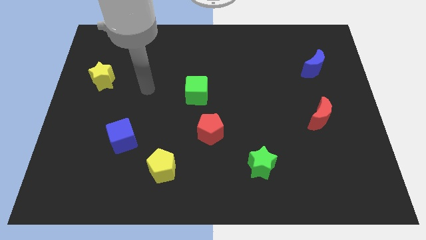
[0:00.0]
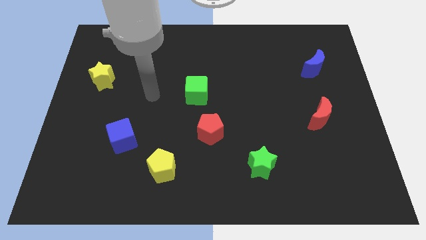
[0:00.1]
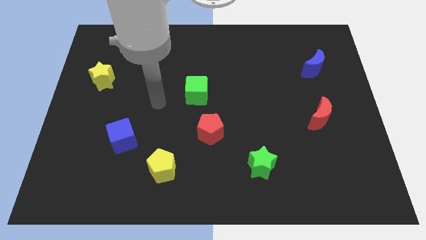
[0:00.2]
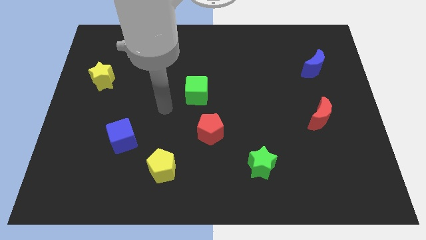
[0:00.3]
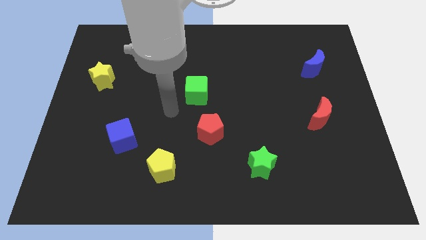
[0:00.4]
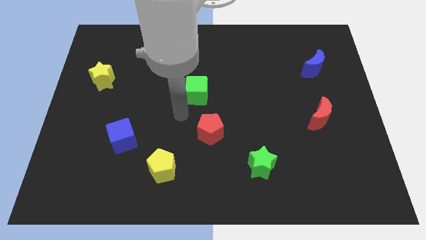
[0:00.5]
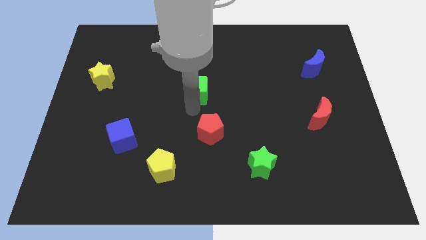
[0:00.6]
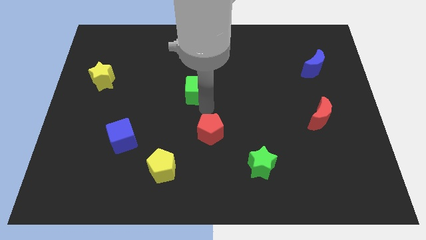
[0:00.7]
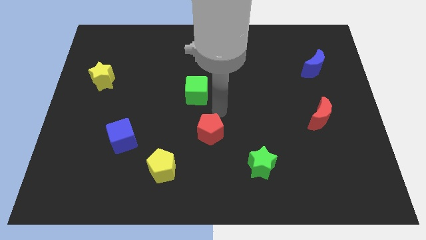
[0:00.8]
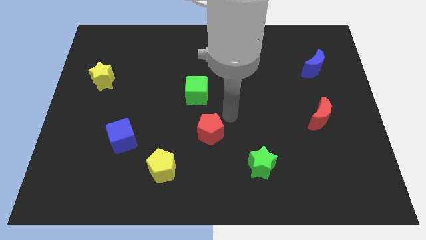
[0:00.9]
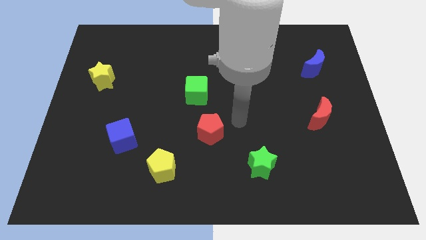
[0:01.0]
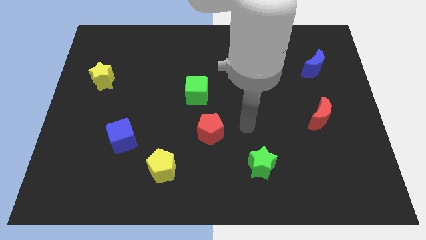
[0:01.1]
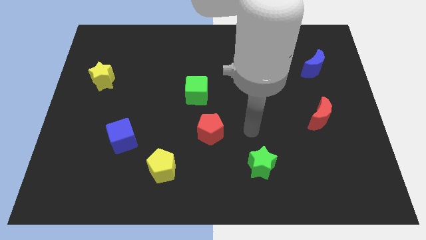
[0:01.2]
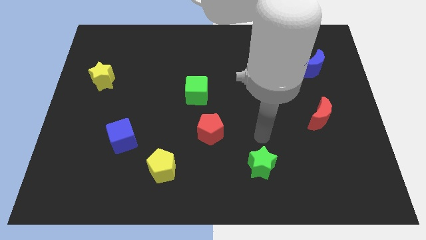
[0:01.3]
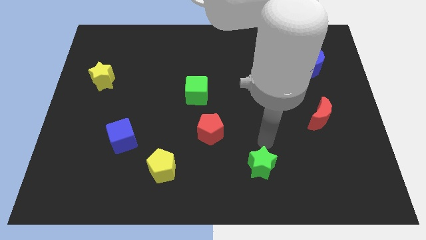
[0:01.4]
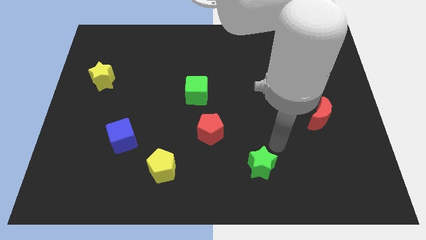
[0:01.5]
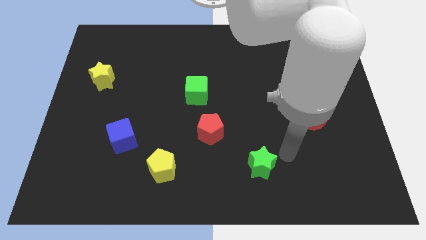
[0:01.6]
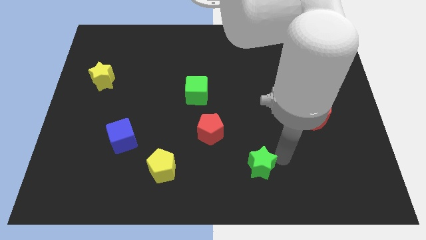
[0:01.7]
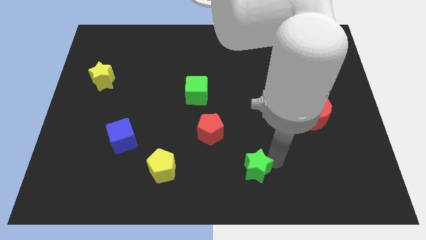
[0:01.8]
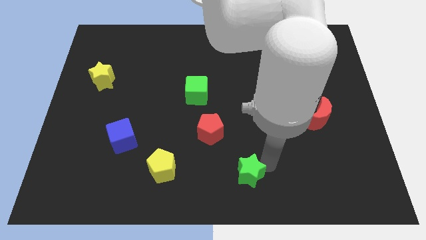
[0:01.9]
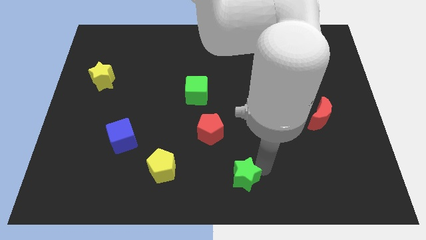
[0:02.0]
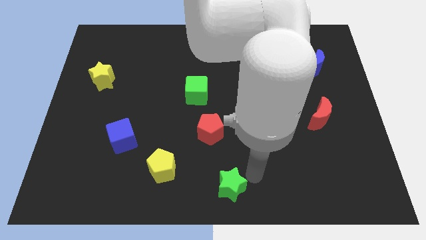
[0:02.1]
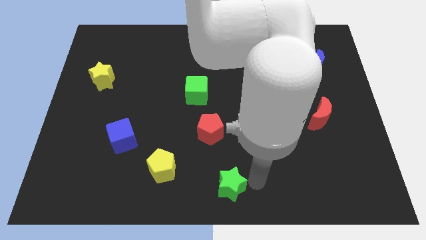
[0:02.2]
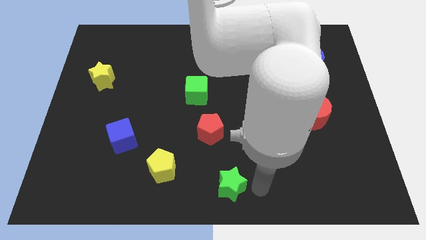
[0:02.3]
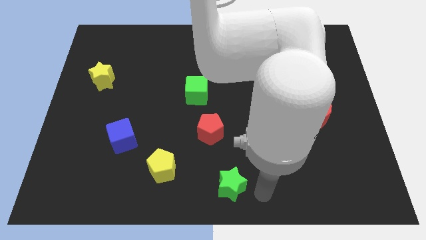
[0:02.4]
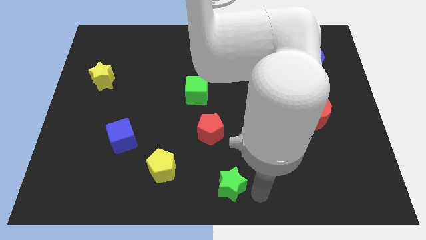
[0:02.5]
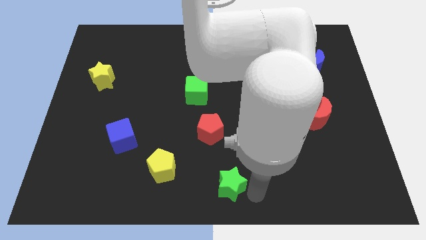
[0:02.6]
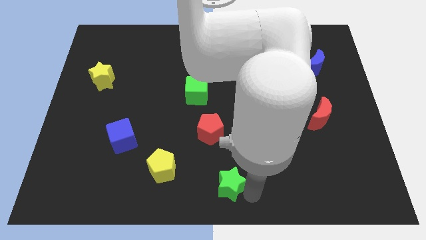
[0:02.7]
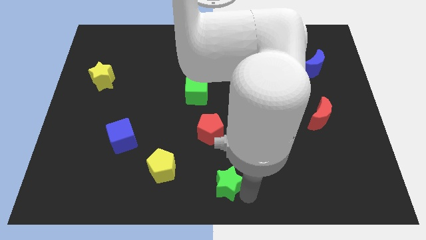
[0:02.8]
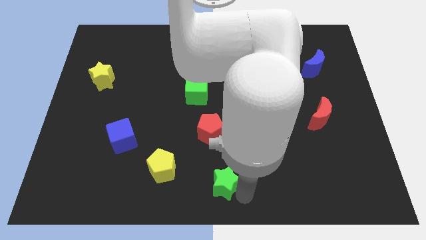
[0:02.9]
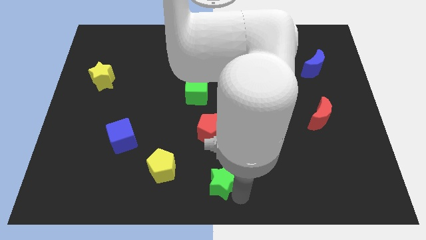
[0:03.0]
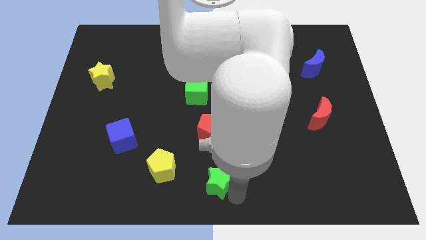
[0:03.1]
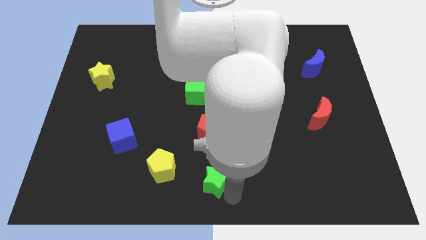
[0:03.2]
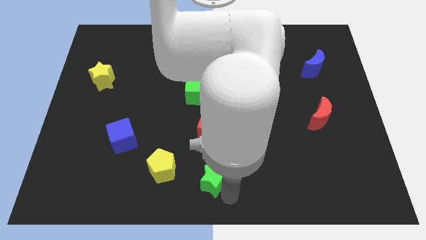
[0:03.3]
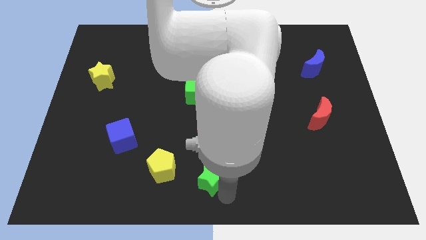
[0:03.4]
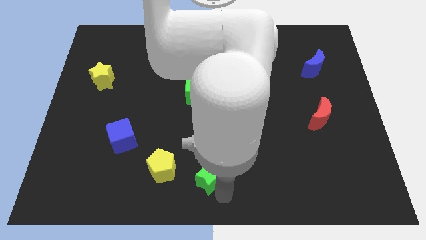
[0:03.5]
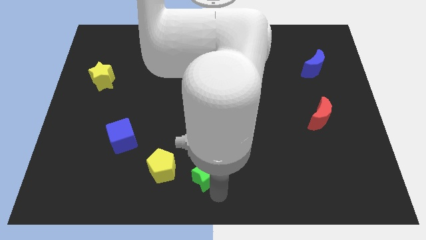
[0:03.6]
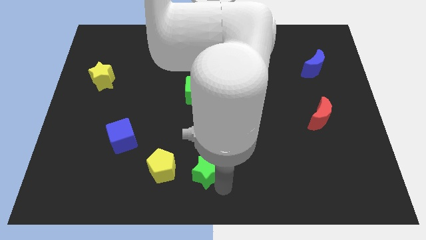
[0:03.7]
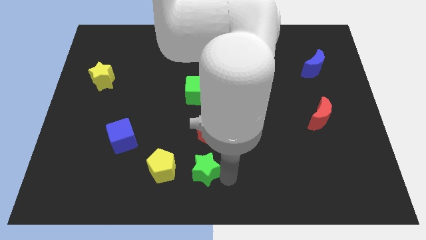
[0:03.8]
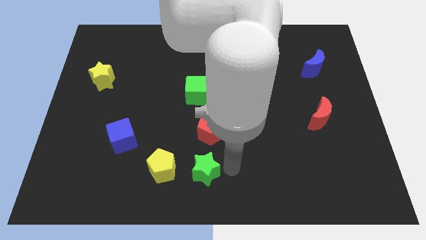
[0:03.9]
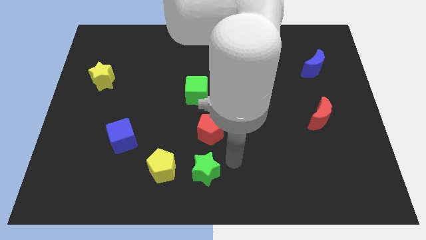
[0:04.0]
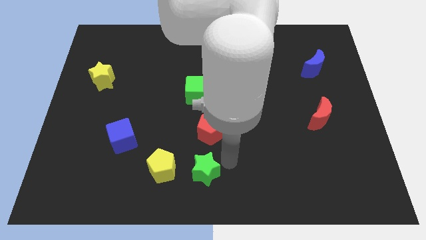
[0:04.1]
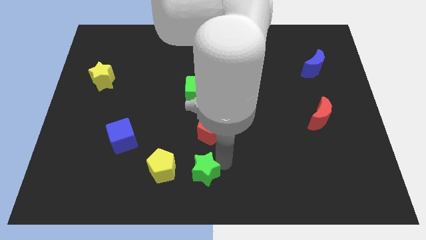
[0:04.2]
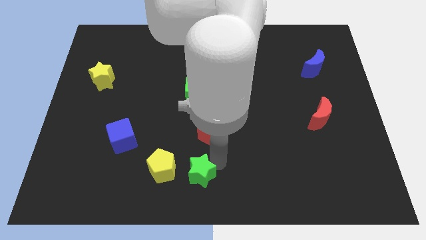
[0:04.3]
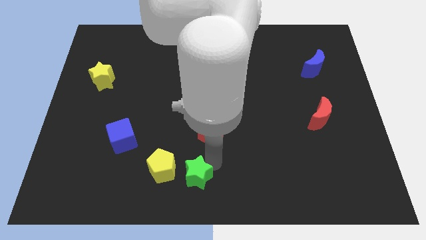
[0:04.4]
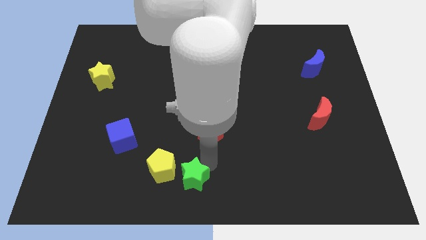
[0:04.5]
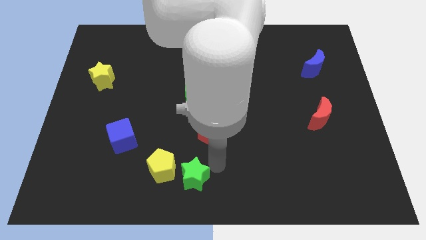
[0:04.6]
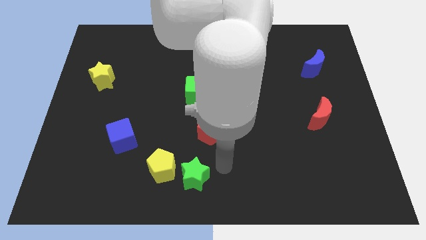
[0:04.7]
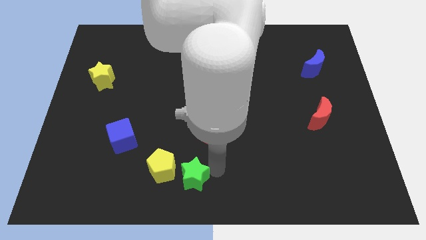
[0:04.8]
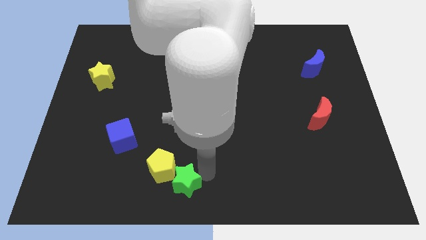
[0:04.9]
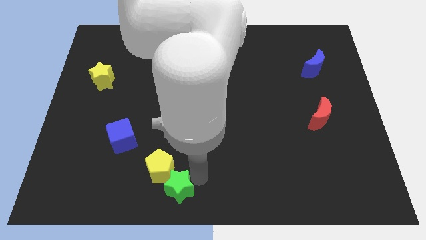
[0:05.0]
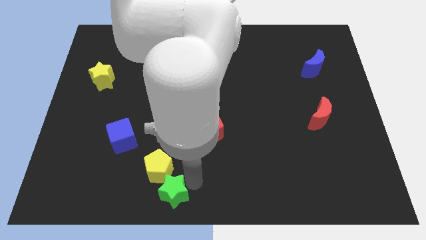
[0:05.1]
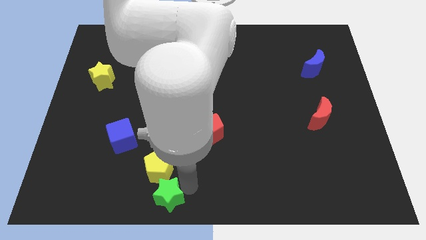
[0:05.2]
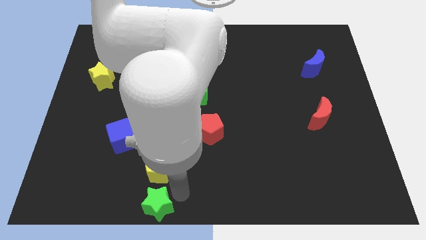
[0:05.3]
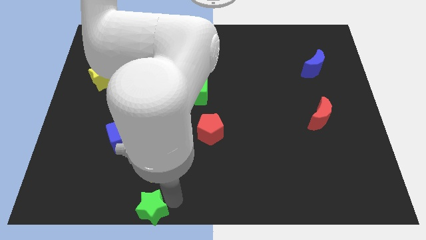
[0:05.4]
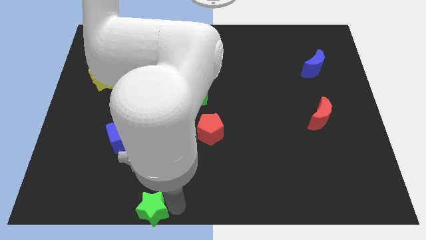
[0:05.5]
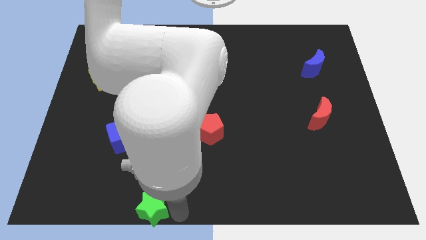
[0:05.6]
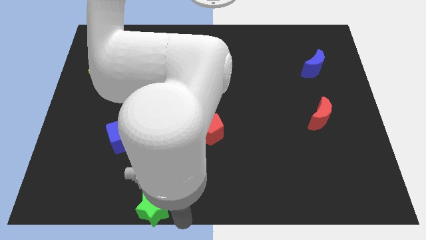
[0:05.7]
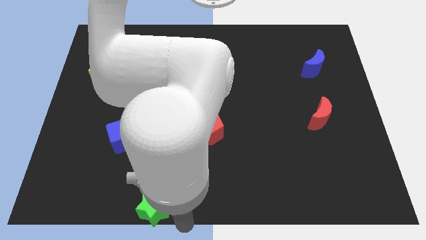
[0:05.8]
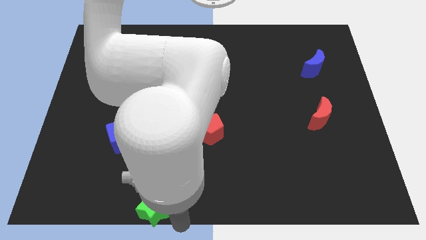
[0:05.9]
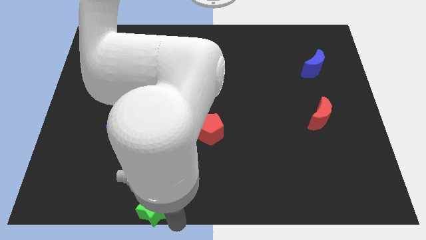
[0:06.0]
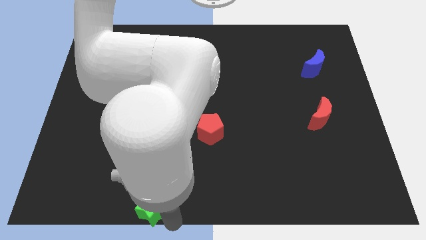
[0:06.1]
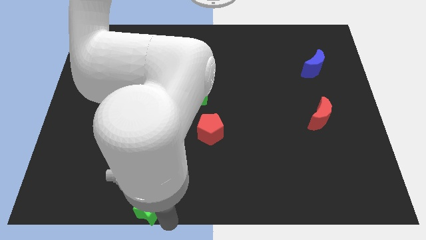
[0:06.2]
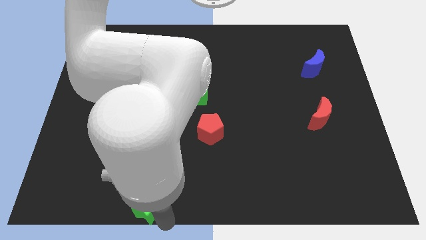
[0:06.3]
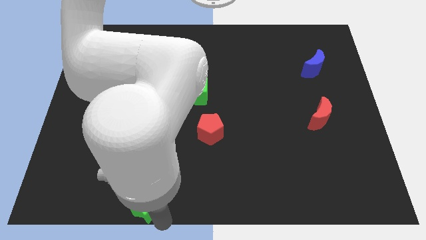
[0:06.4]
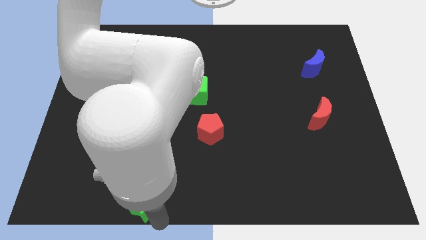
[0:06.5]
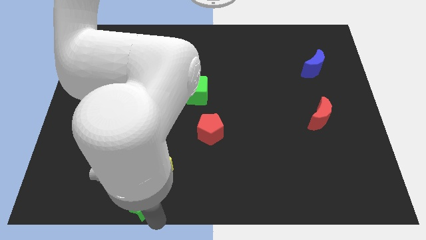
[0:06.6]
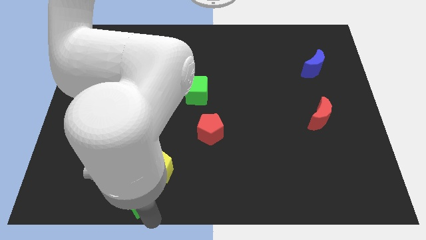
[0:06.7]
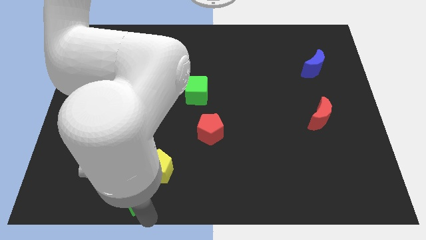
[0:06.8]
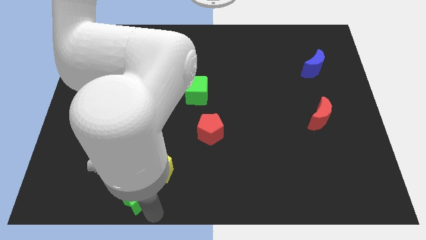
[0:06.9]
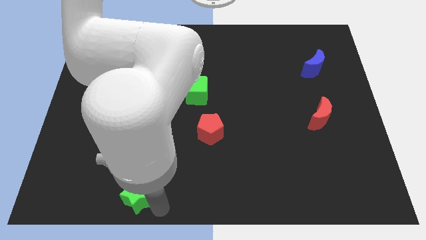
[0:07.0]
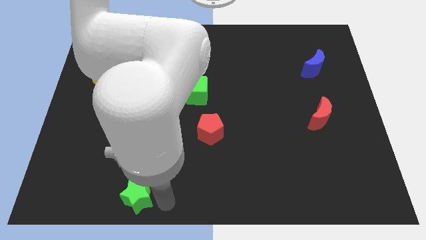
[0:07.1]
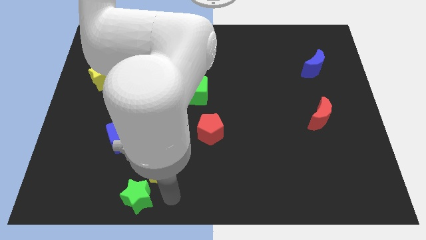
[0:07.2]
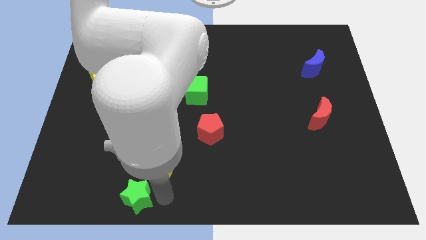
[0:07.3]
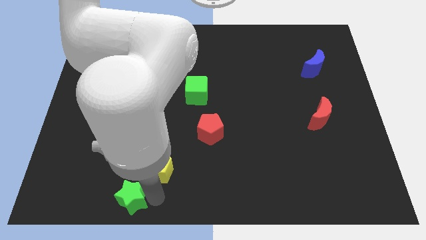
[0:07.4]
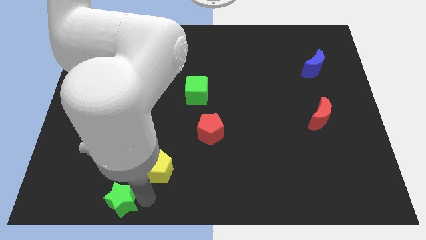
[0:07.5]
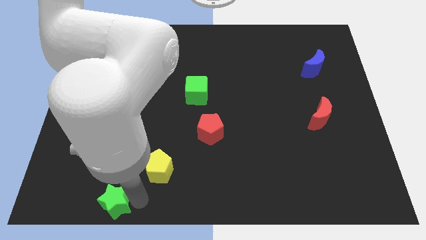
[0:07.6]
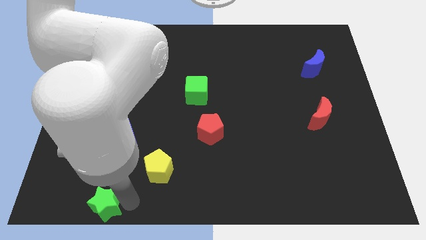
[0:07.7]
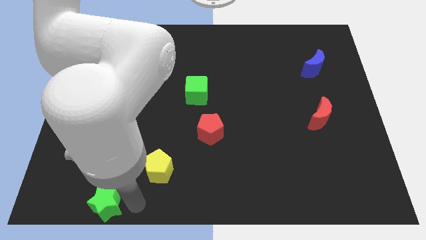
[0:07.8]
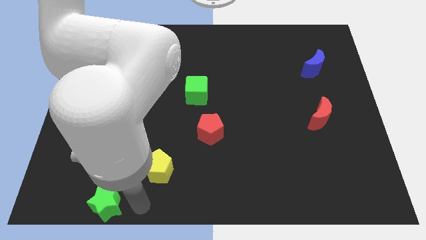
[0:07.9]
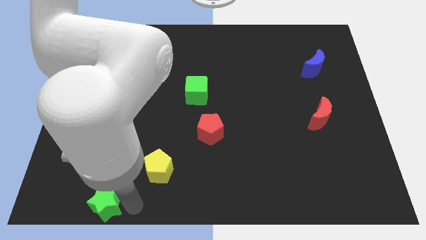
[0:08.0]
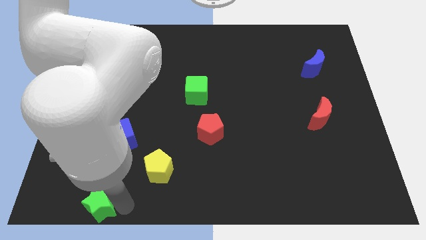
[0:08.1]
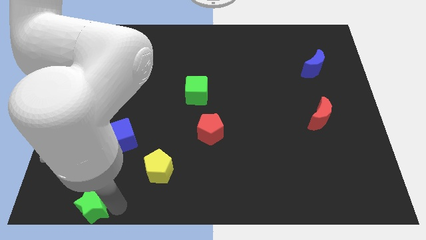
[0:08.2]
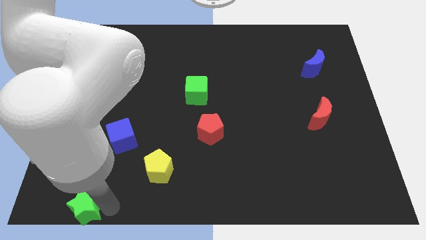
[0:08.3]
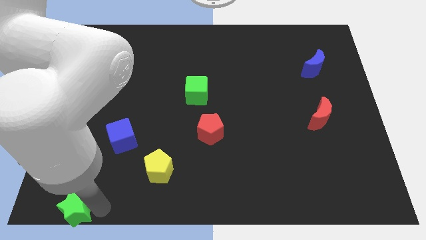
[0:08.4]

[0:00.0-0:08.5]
push the green star to the bottom left
